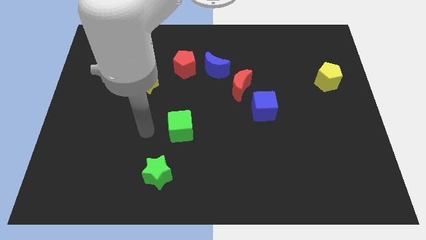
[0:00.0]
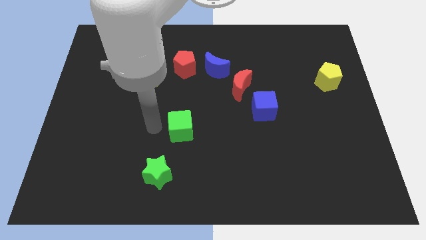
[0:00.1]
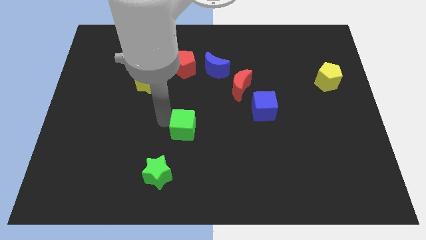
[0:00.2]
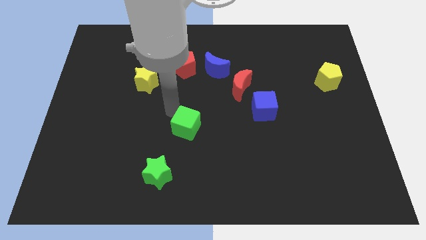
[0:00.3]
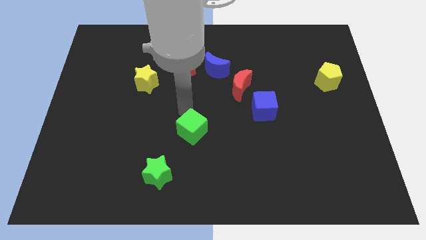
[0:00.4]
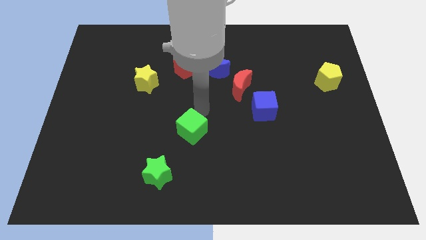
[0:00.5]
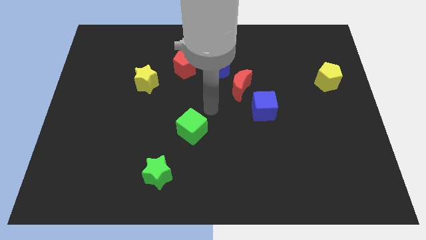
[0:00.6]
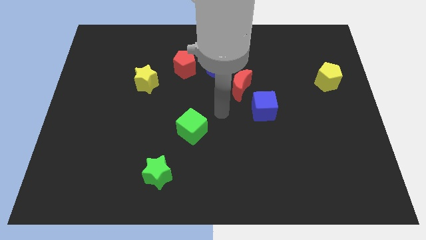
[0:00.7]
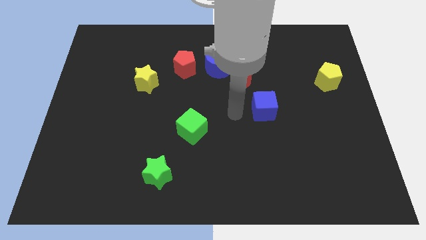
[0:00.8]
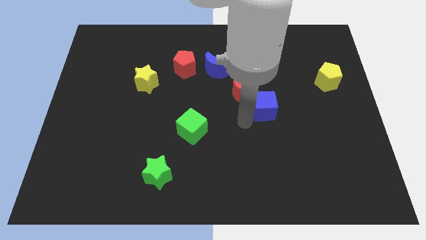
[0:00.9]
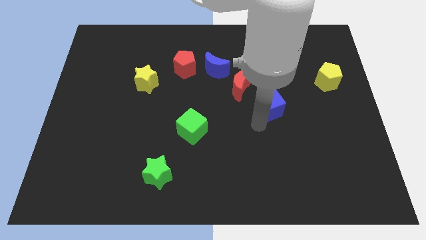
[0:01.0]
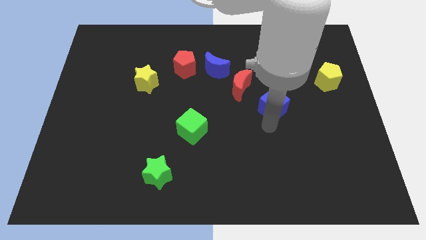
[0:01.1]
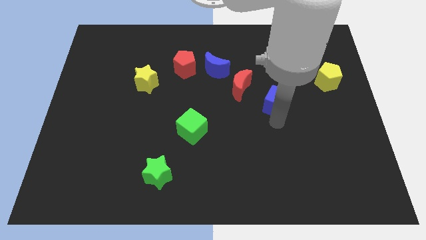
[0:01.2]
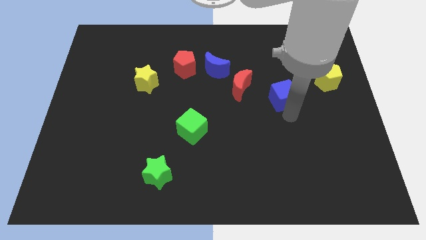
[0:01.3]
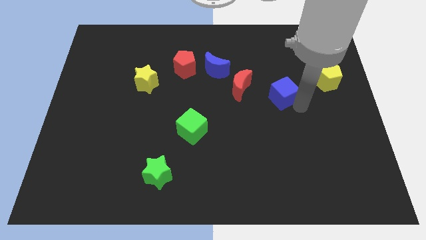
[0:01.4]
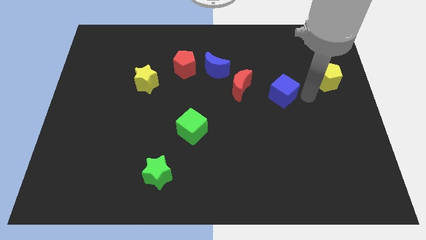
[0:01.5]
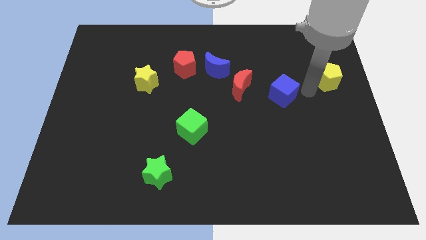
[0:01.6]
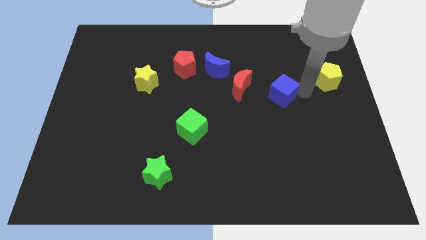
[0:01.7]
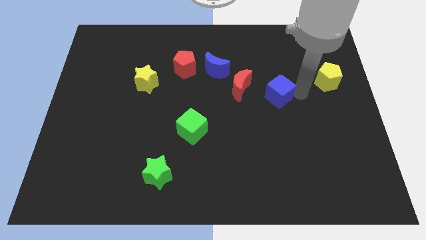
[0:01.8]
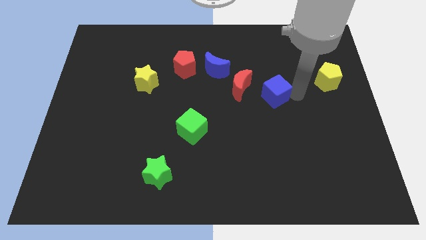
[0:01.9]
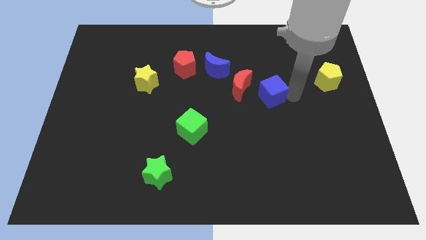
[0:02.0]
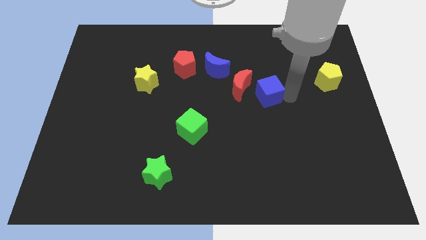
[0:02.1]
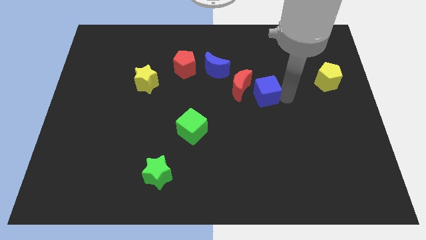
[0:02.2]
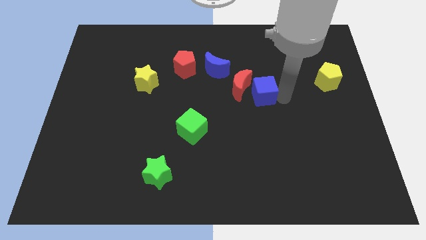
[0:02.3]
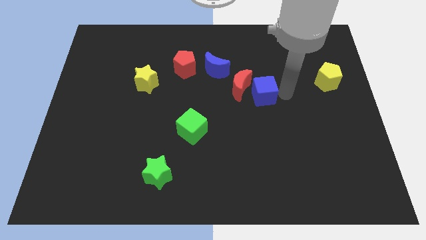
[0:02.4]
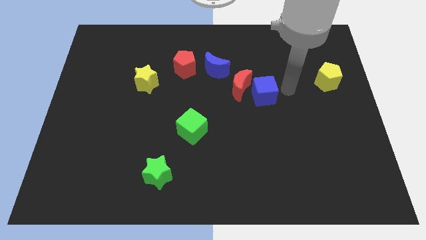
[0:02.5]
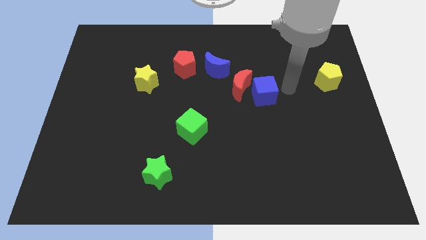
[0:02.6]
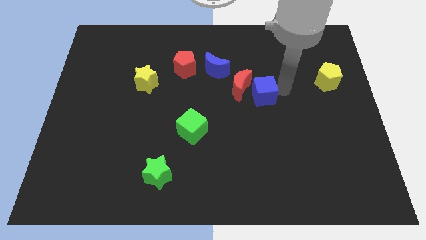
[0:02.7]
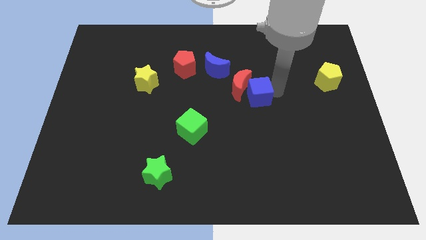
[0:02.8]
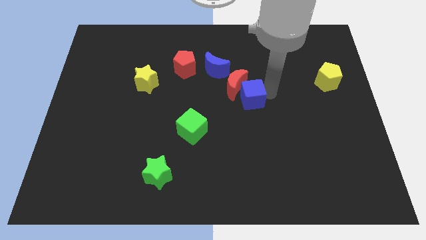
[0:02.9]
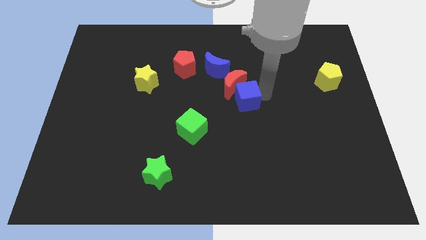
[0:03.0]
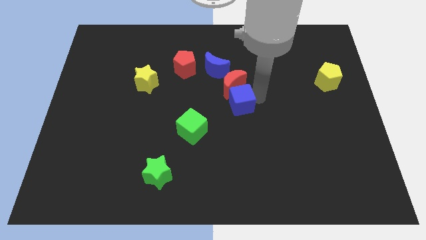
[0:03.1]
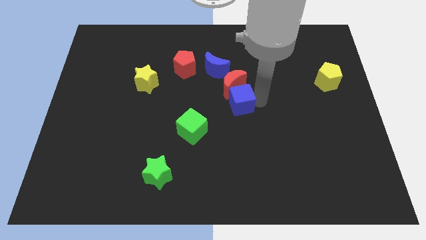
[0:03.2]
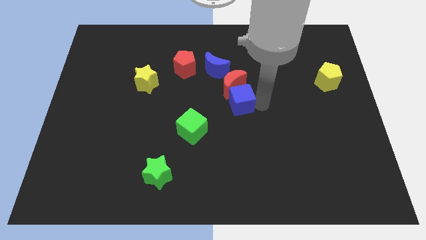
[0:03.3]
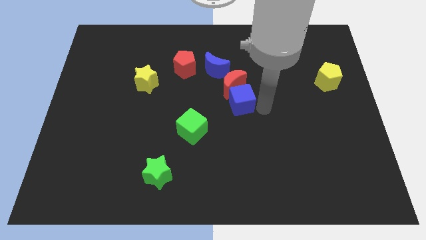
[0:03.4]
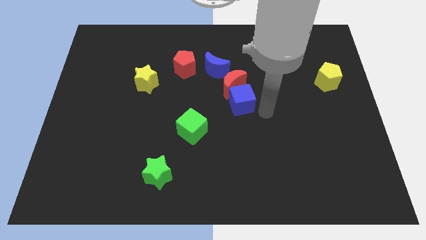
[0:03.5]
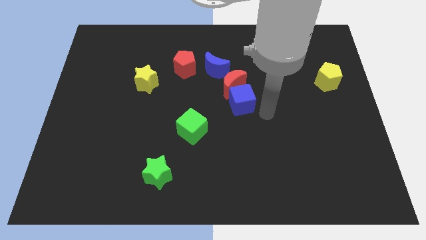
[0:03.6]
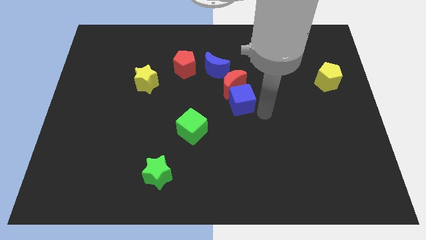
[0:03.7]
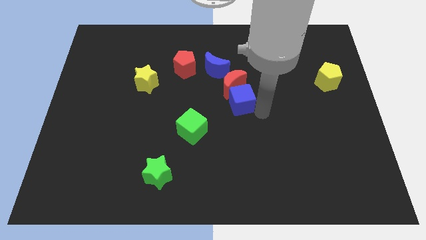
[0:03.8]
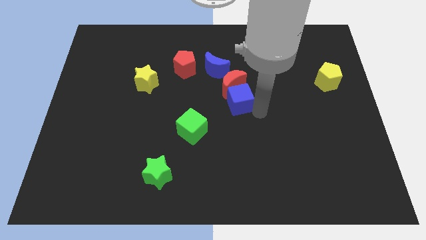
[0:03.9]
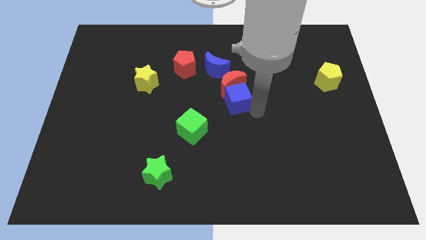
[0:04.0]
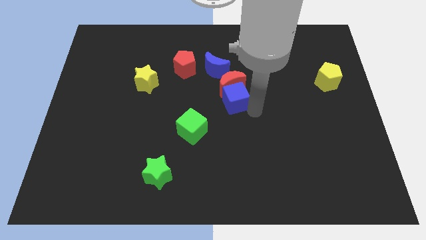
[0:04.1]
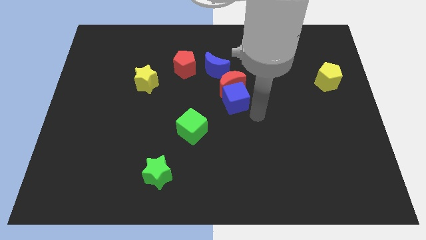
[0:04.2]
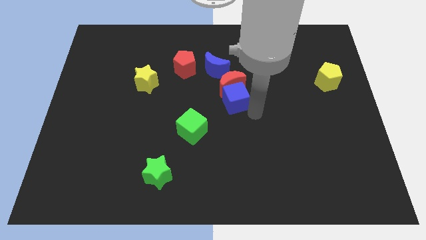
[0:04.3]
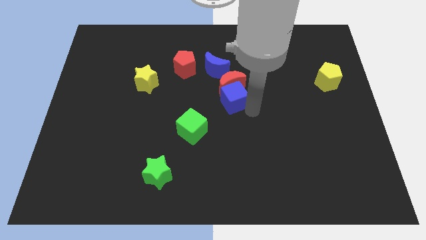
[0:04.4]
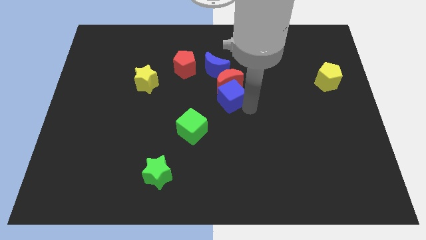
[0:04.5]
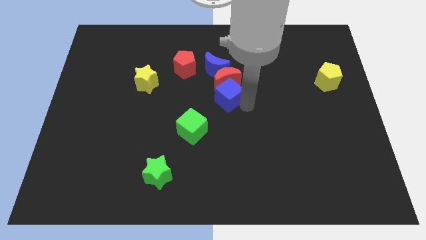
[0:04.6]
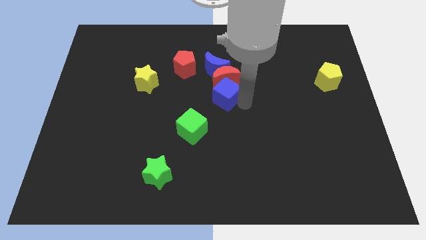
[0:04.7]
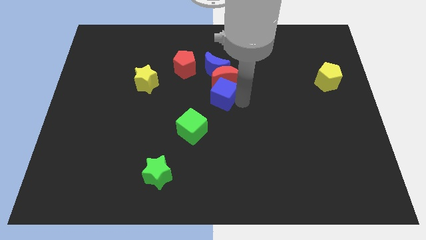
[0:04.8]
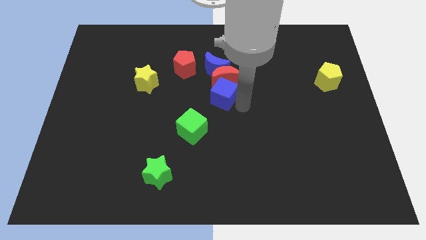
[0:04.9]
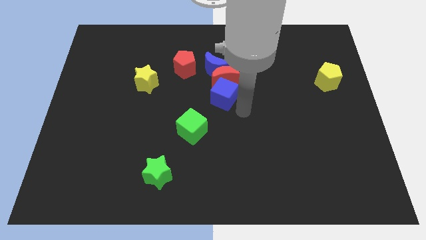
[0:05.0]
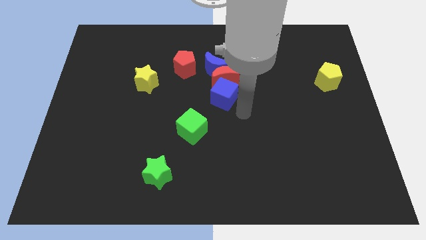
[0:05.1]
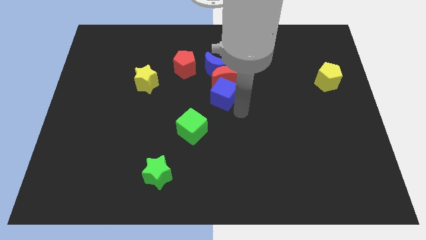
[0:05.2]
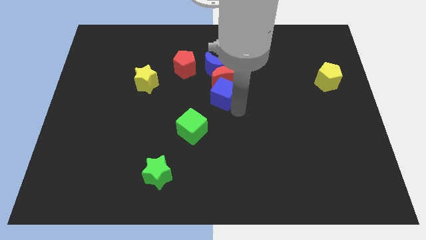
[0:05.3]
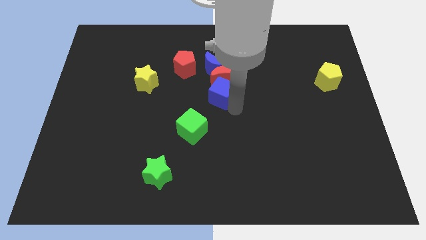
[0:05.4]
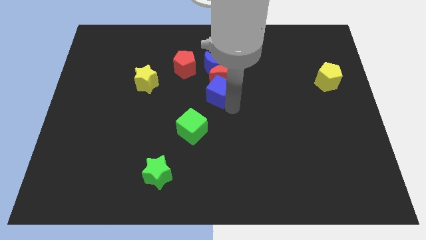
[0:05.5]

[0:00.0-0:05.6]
put the blue cube diagonally down and to the right of the red pentagon

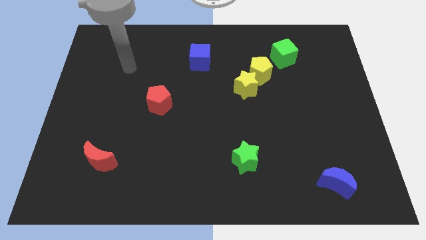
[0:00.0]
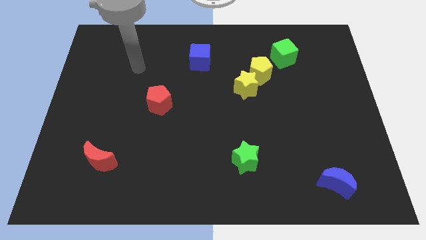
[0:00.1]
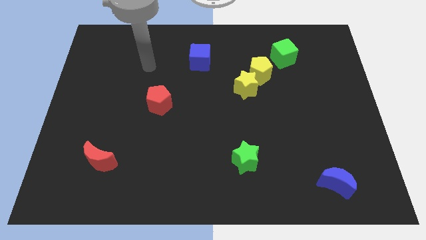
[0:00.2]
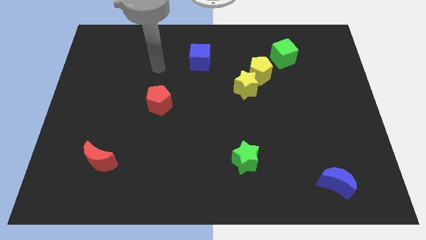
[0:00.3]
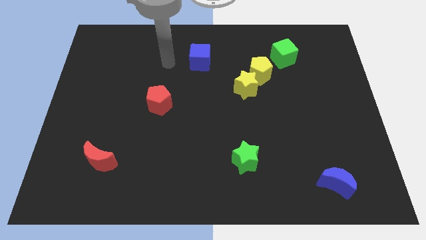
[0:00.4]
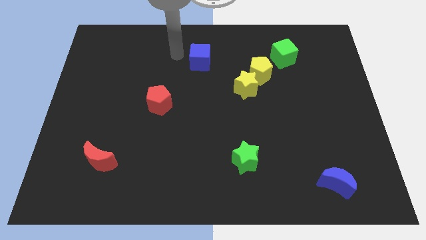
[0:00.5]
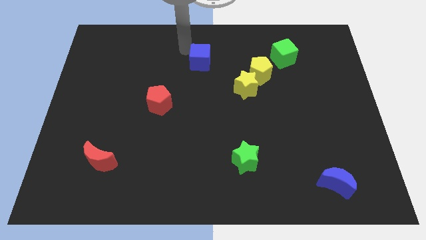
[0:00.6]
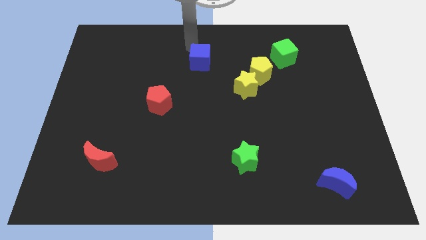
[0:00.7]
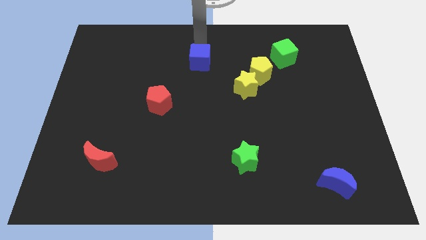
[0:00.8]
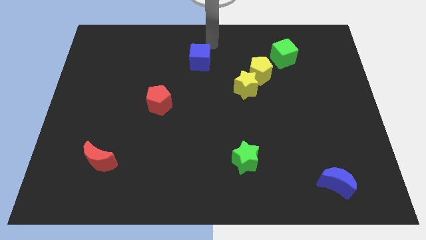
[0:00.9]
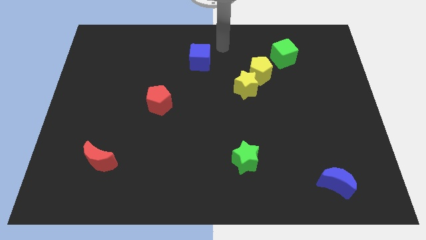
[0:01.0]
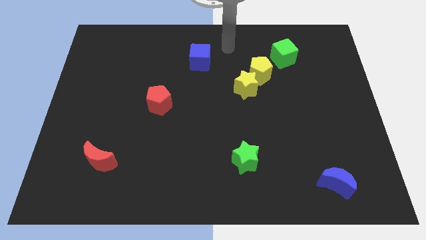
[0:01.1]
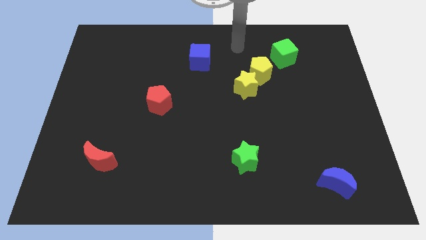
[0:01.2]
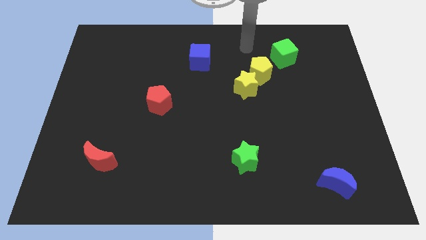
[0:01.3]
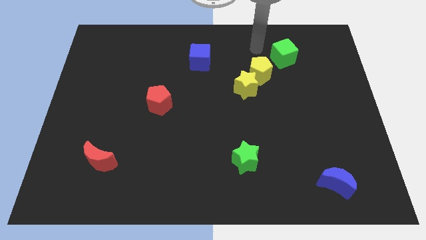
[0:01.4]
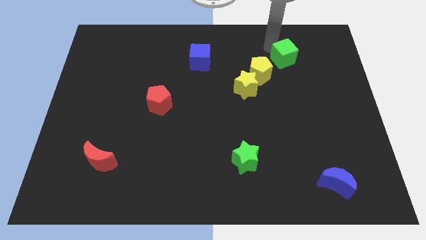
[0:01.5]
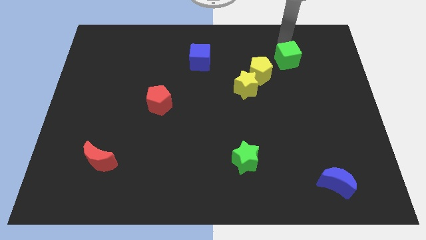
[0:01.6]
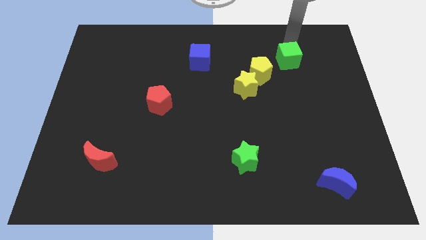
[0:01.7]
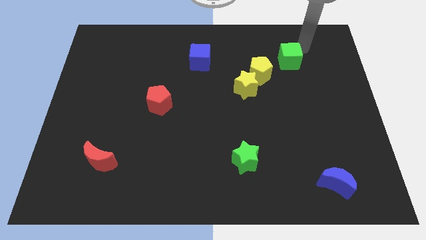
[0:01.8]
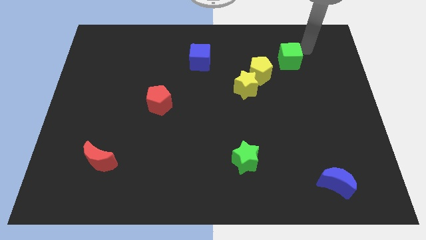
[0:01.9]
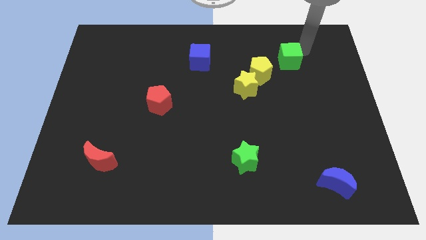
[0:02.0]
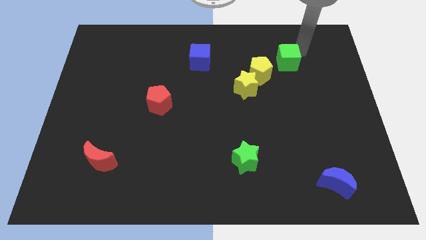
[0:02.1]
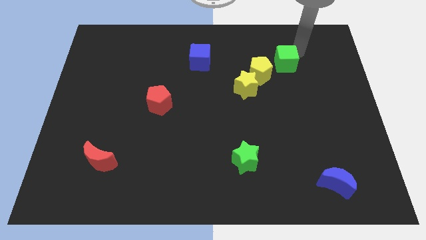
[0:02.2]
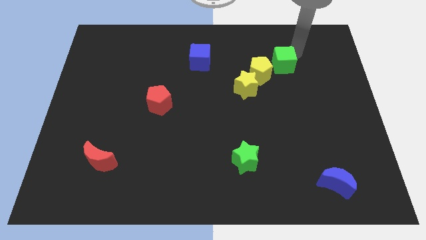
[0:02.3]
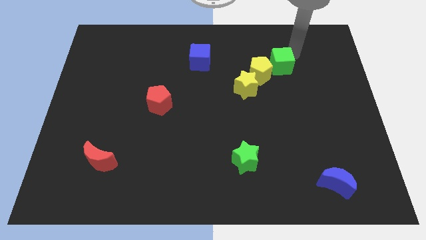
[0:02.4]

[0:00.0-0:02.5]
move the green cube to the top right side of the yellow star
